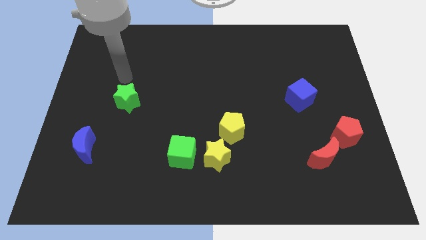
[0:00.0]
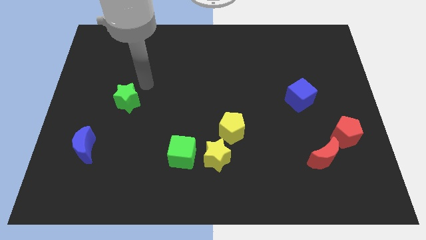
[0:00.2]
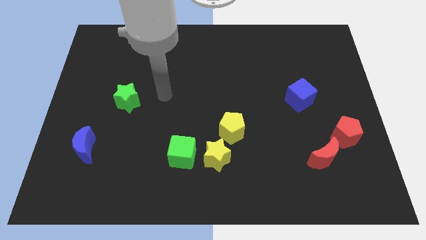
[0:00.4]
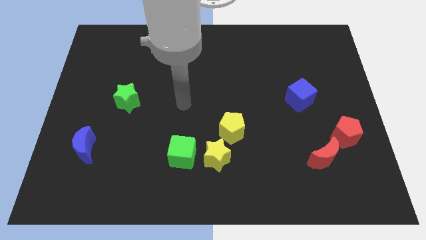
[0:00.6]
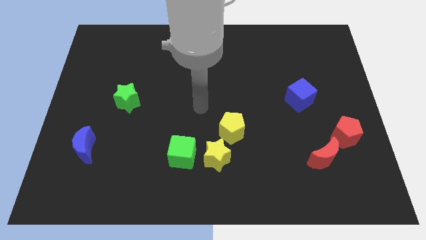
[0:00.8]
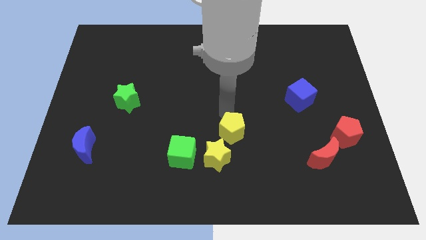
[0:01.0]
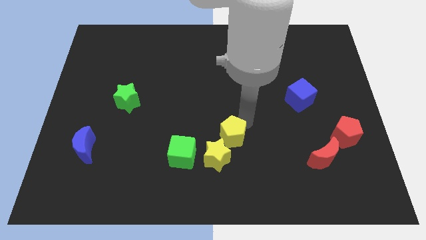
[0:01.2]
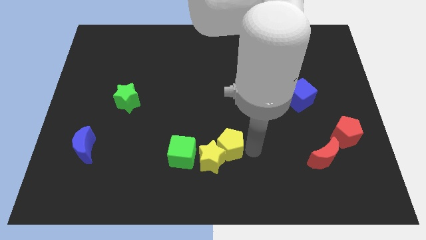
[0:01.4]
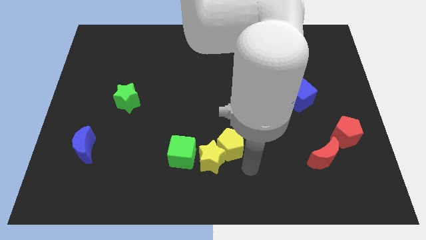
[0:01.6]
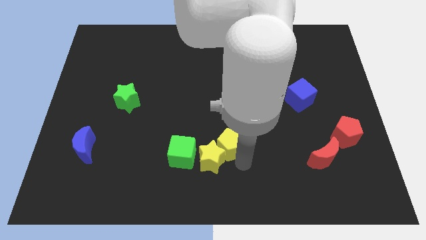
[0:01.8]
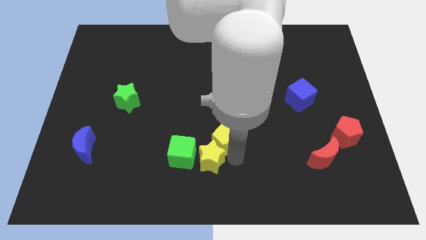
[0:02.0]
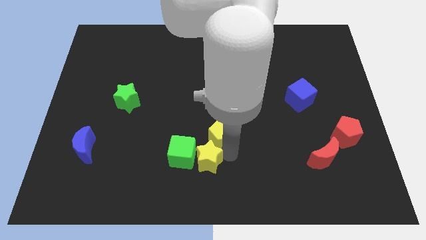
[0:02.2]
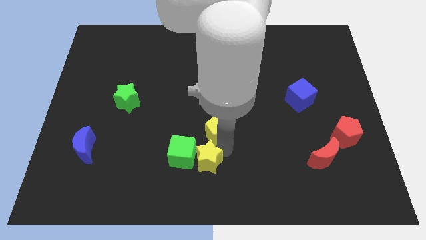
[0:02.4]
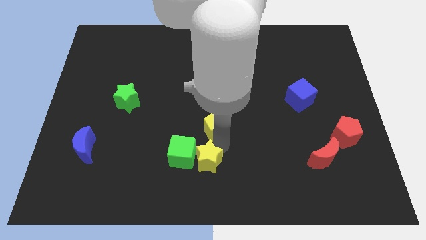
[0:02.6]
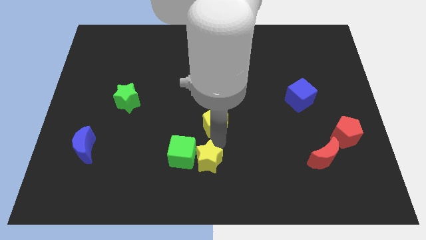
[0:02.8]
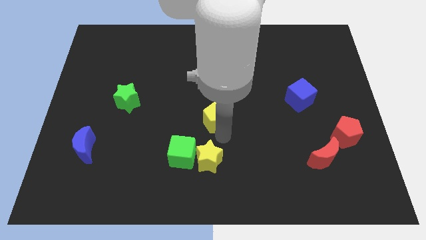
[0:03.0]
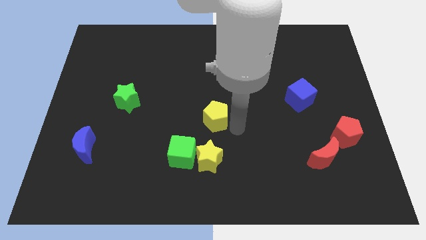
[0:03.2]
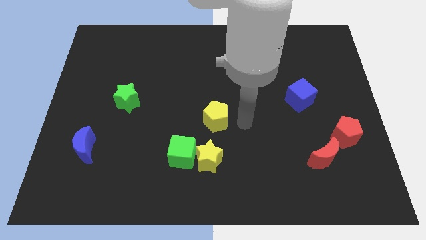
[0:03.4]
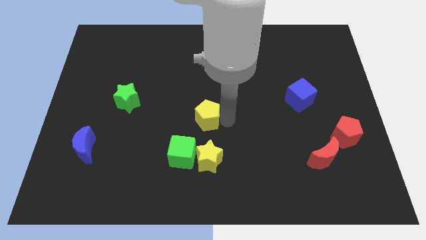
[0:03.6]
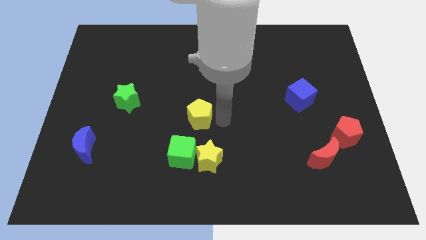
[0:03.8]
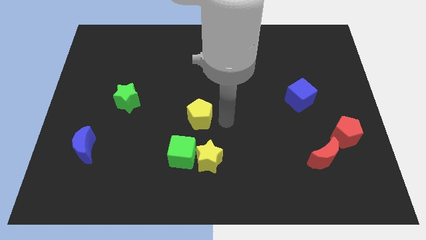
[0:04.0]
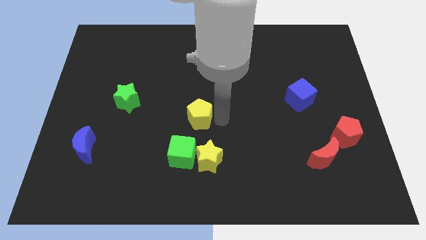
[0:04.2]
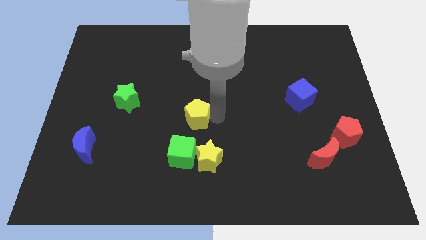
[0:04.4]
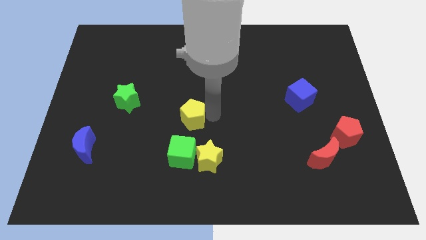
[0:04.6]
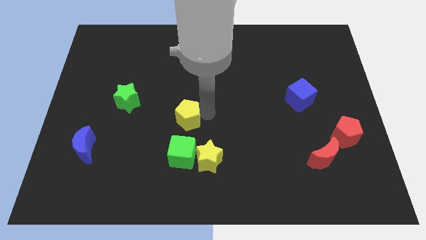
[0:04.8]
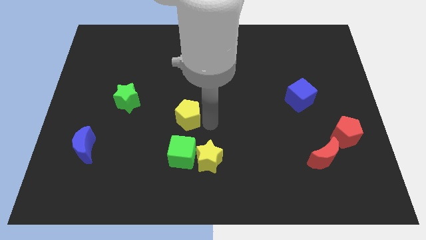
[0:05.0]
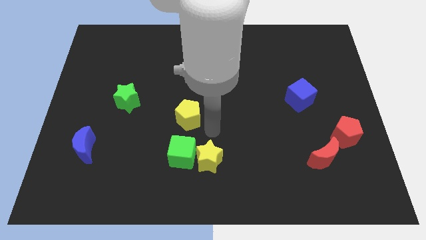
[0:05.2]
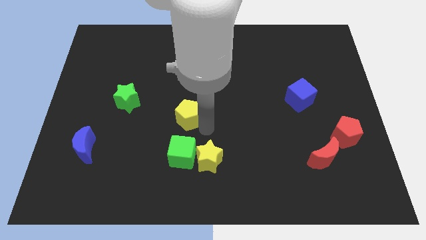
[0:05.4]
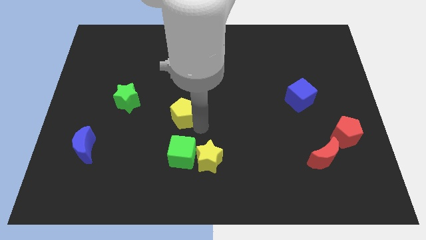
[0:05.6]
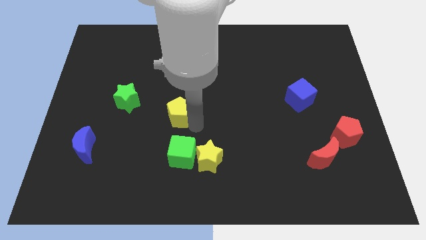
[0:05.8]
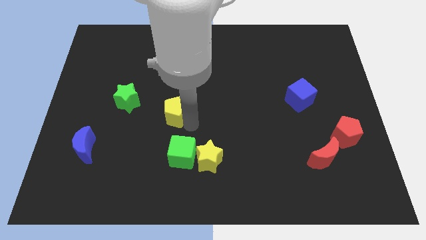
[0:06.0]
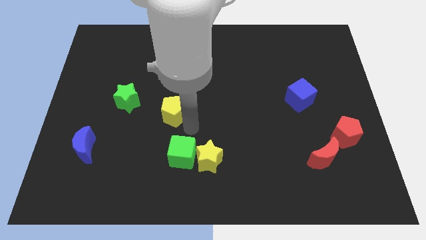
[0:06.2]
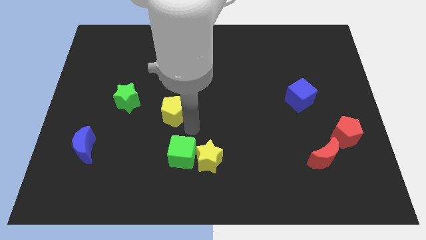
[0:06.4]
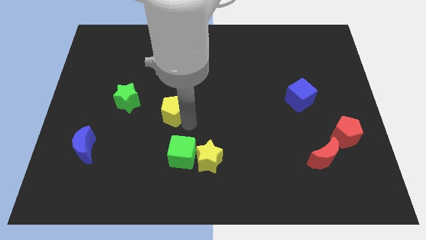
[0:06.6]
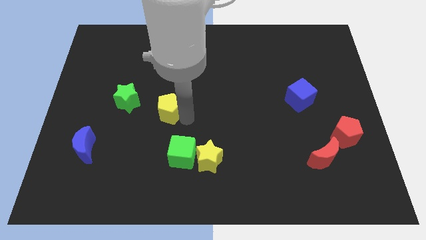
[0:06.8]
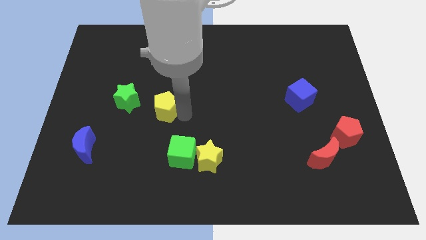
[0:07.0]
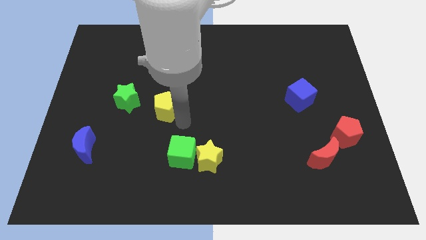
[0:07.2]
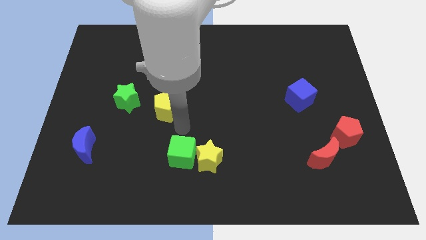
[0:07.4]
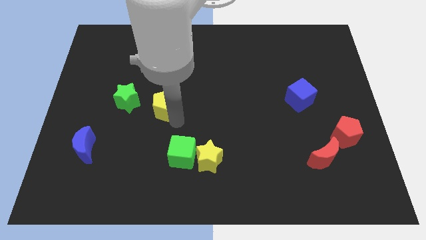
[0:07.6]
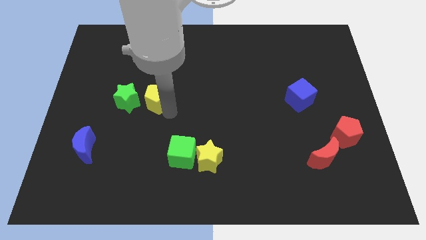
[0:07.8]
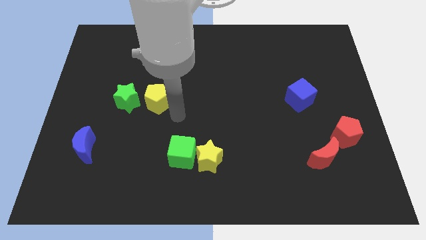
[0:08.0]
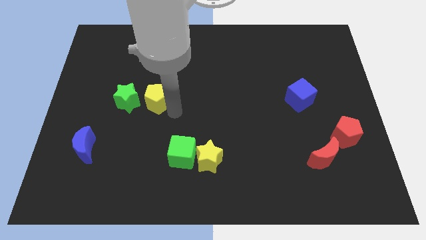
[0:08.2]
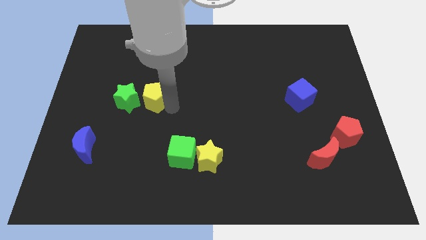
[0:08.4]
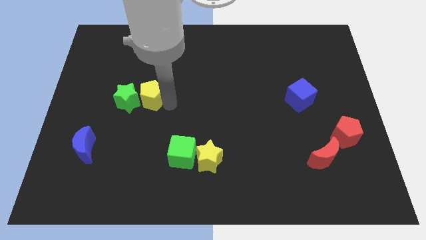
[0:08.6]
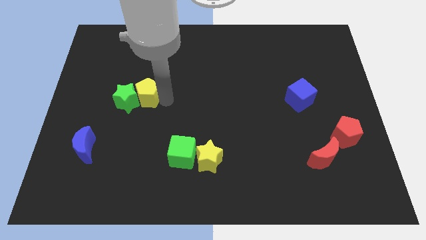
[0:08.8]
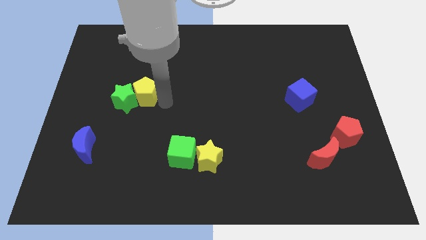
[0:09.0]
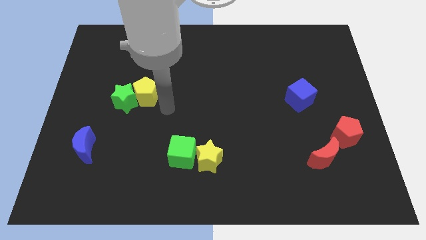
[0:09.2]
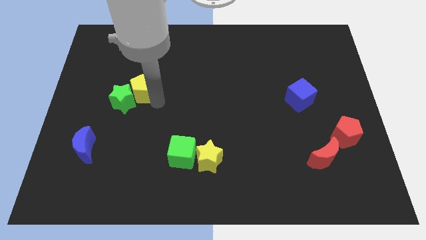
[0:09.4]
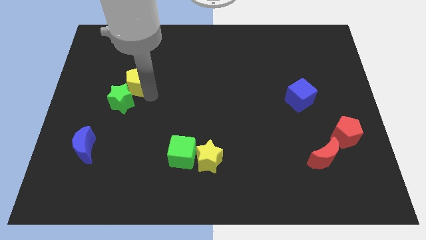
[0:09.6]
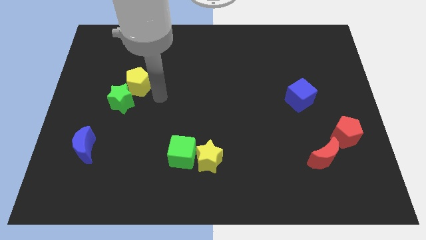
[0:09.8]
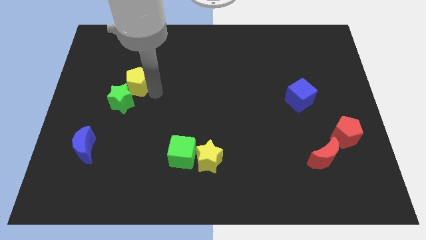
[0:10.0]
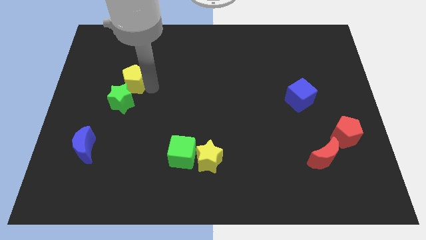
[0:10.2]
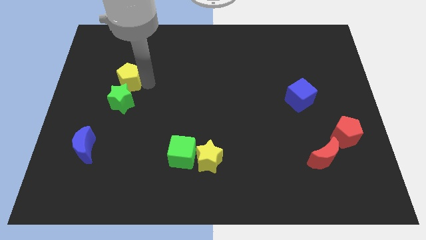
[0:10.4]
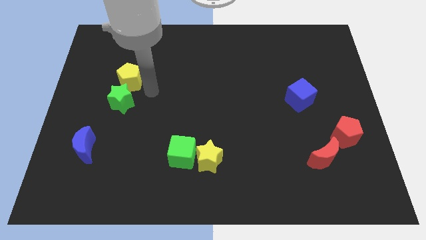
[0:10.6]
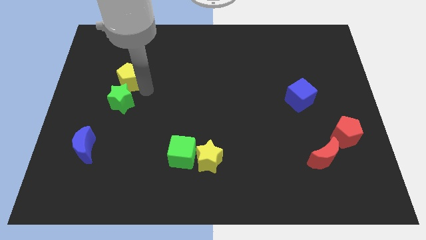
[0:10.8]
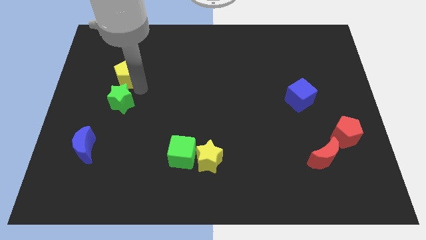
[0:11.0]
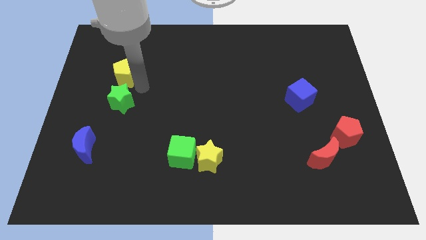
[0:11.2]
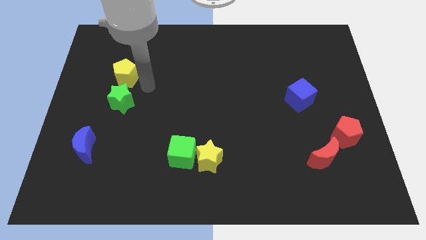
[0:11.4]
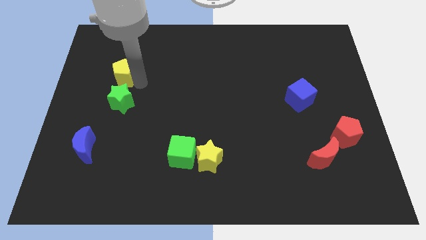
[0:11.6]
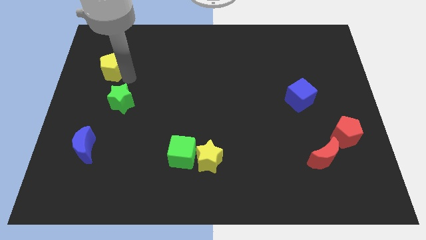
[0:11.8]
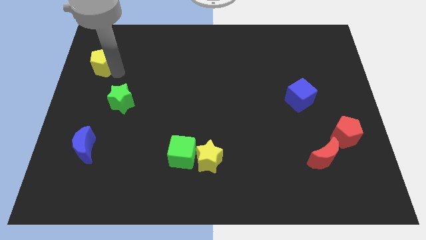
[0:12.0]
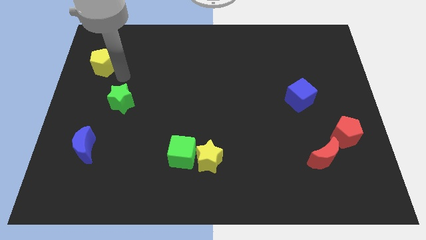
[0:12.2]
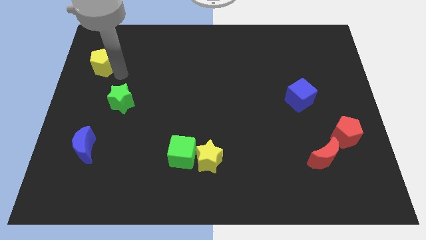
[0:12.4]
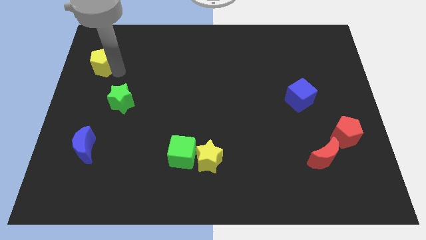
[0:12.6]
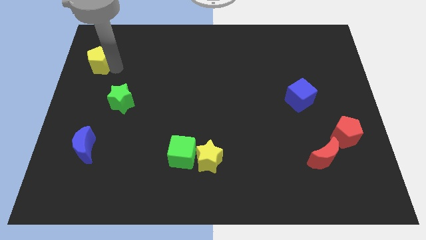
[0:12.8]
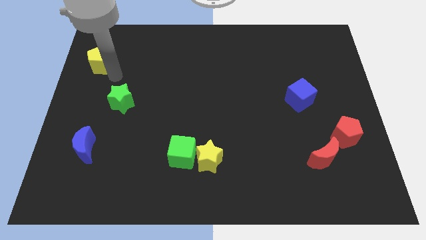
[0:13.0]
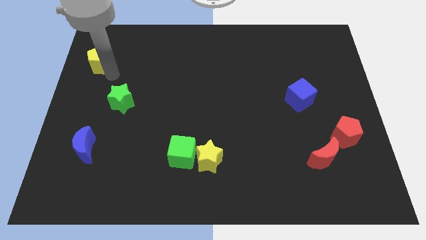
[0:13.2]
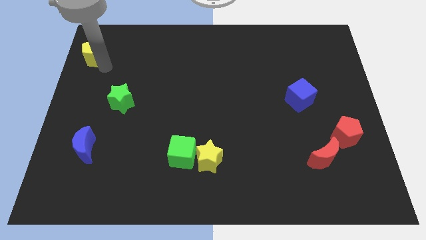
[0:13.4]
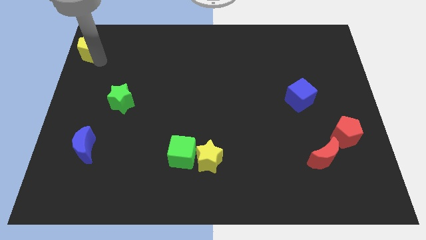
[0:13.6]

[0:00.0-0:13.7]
move the yellow pentagon to the top left of the board
